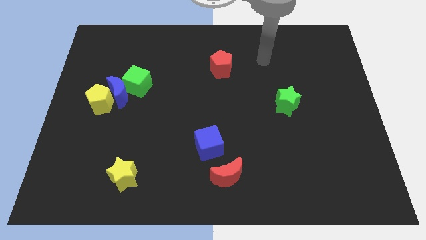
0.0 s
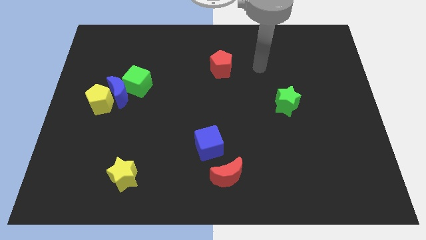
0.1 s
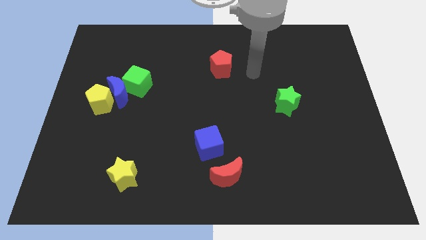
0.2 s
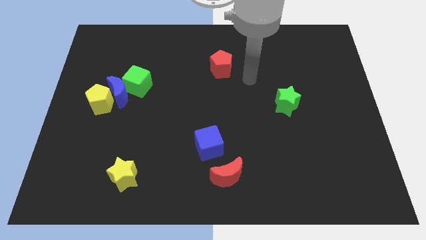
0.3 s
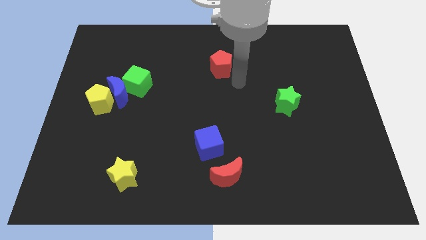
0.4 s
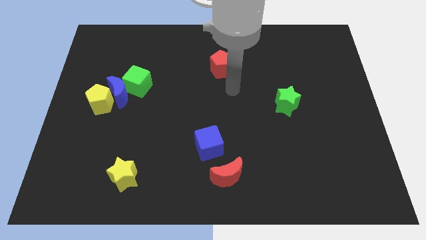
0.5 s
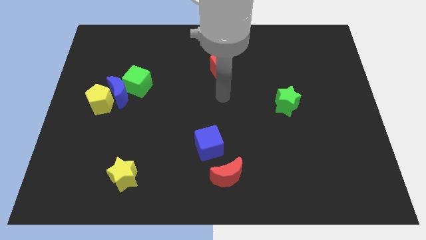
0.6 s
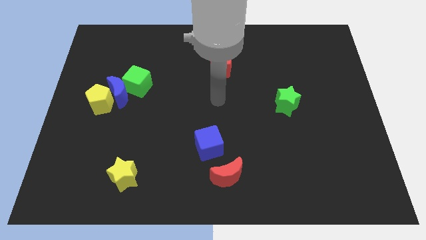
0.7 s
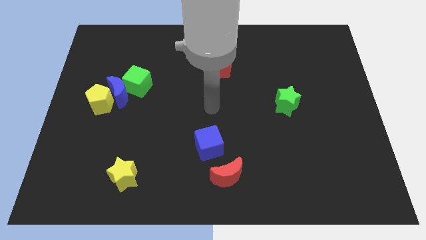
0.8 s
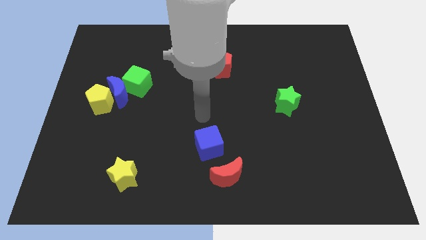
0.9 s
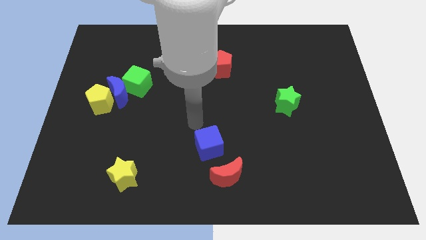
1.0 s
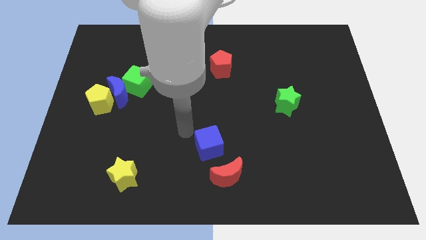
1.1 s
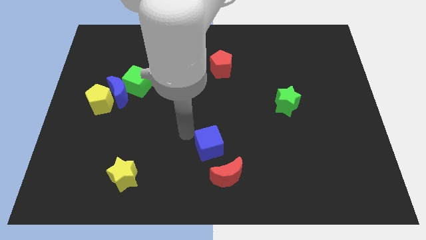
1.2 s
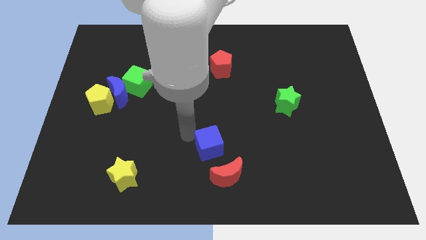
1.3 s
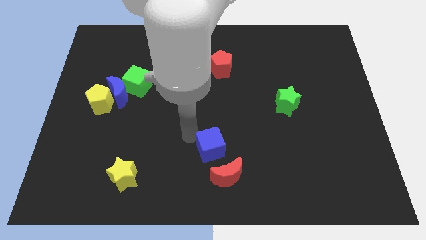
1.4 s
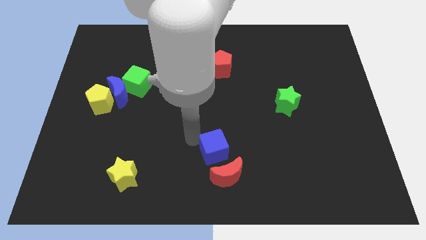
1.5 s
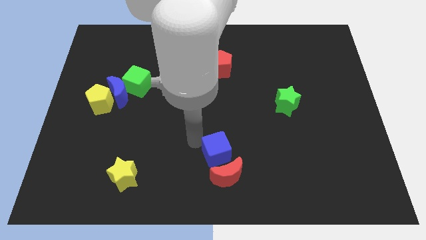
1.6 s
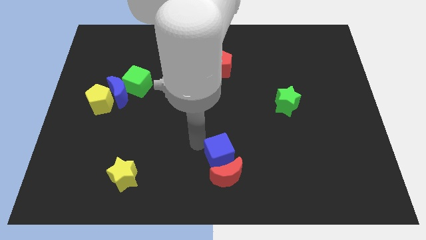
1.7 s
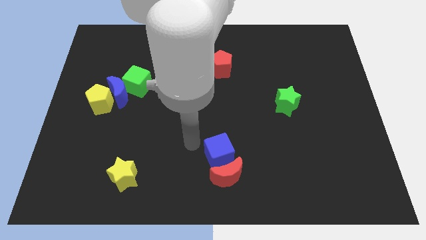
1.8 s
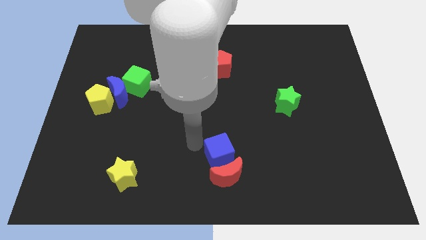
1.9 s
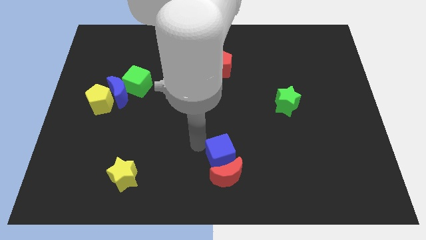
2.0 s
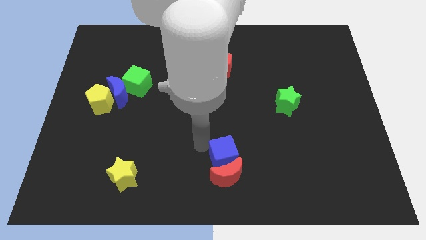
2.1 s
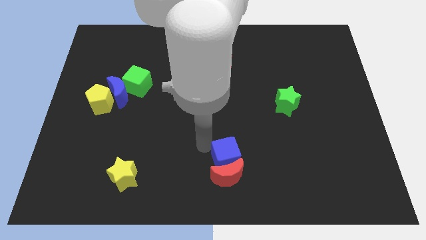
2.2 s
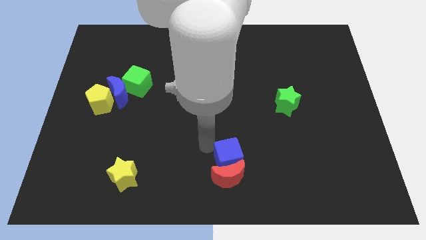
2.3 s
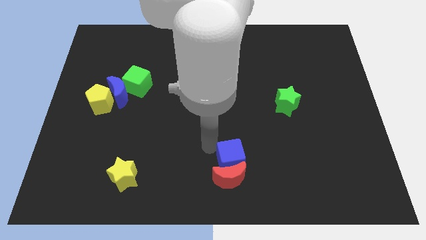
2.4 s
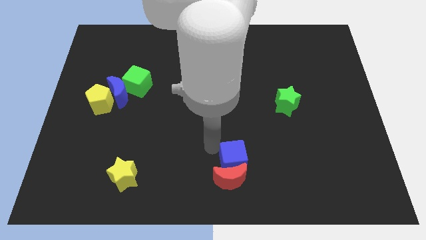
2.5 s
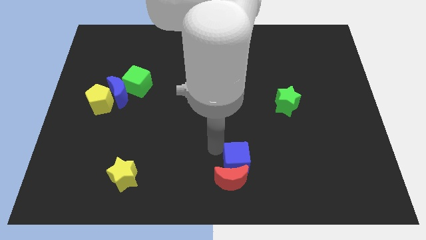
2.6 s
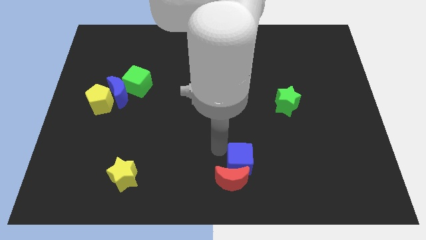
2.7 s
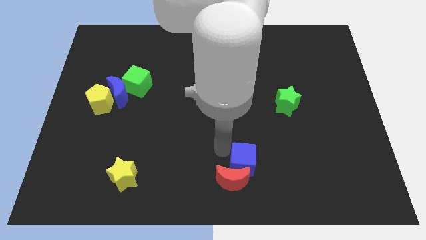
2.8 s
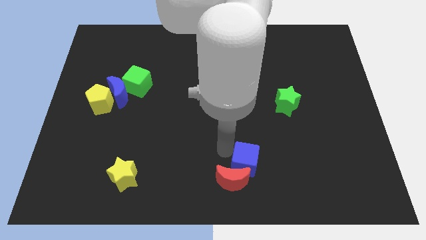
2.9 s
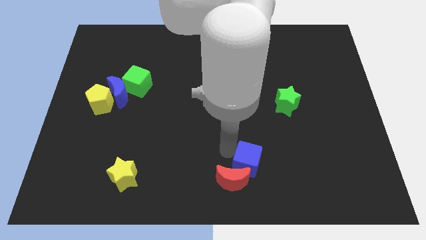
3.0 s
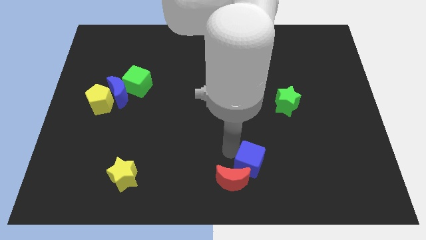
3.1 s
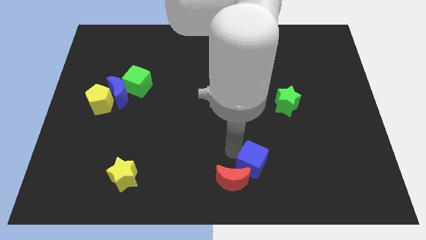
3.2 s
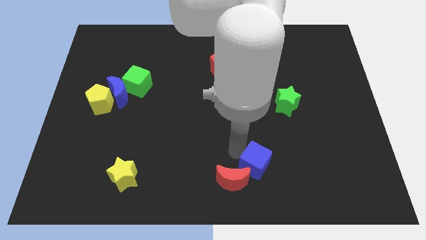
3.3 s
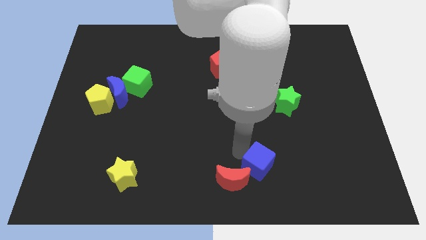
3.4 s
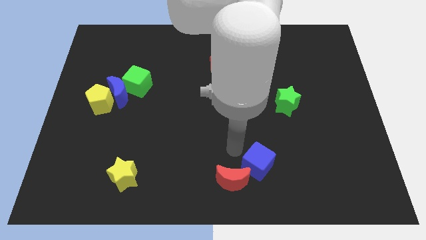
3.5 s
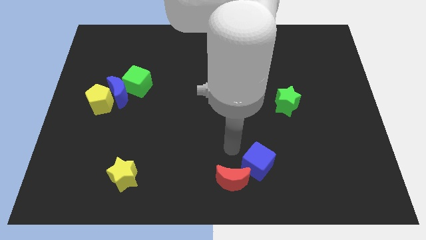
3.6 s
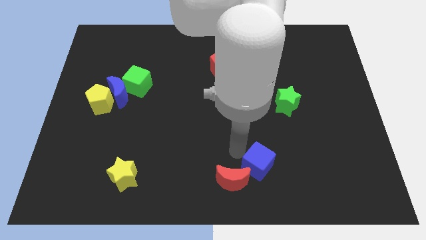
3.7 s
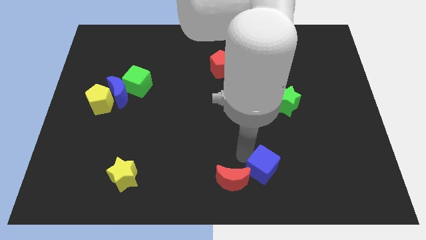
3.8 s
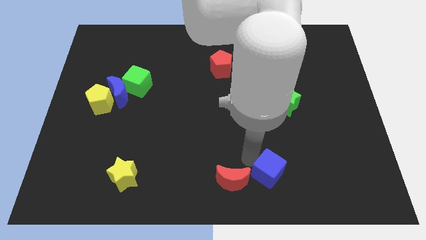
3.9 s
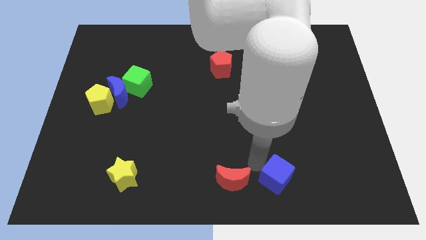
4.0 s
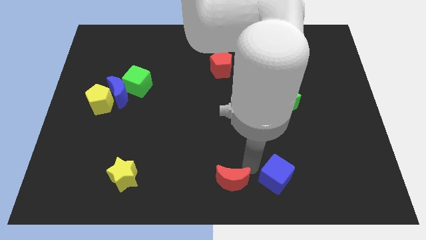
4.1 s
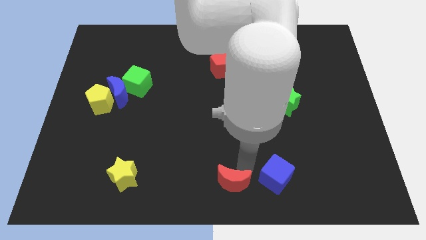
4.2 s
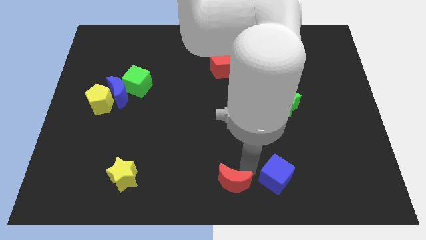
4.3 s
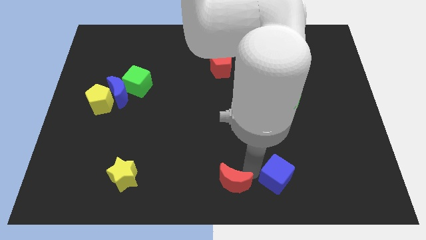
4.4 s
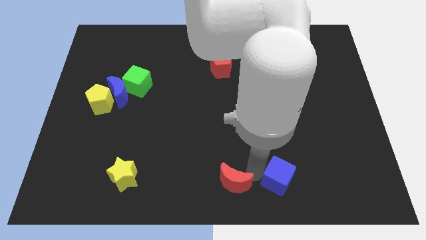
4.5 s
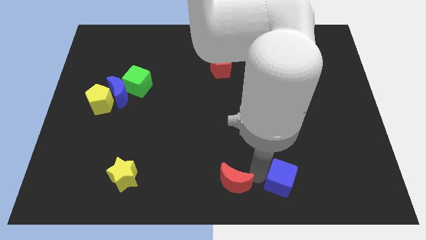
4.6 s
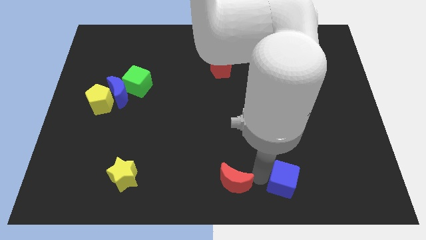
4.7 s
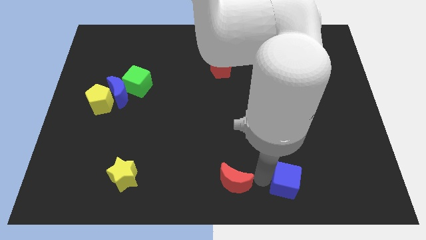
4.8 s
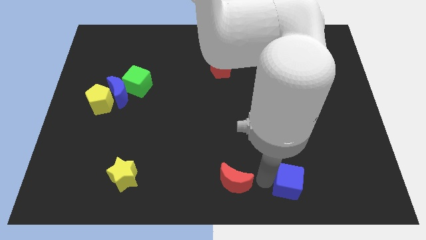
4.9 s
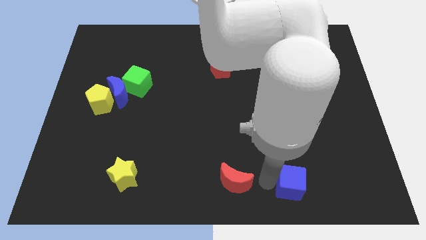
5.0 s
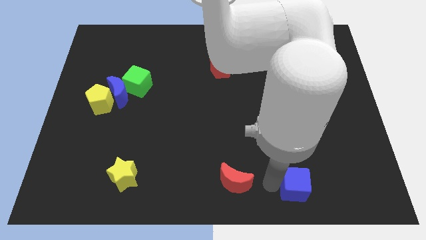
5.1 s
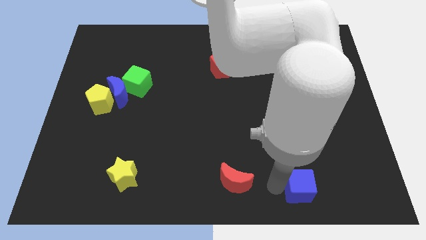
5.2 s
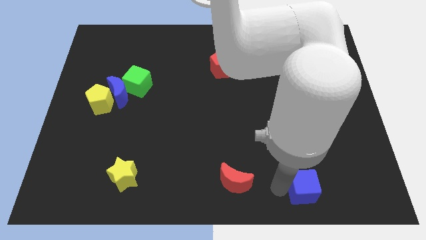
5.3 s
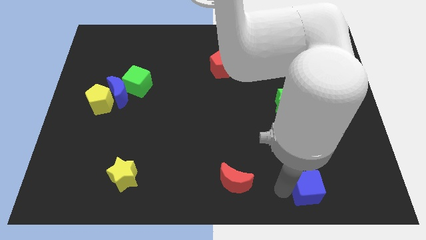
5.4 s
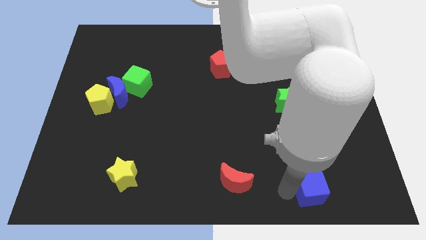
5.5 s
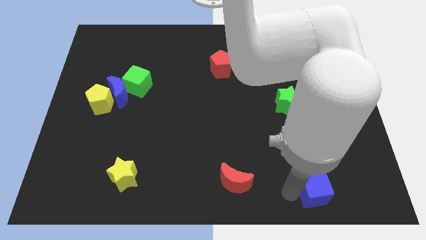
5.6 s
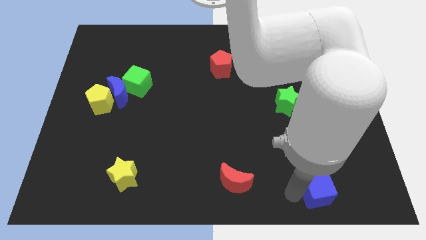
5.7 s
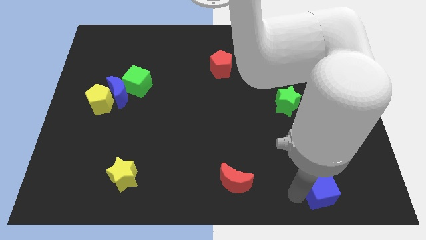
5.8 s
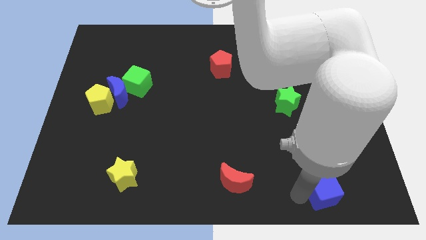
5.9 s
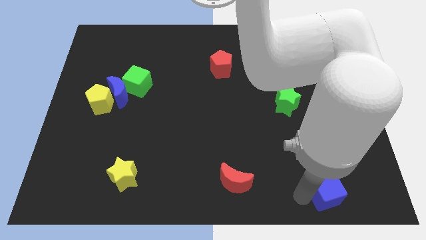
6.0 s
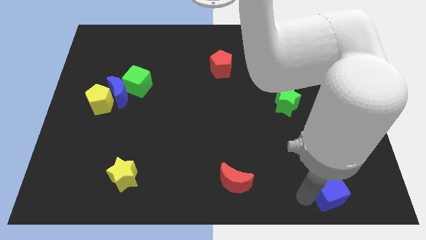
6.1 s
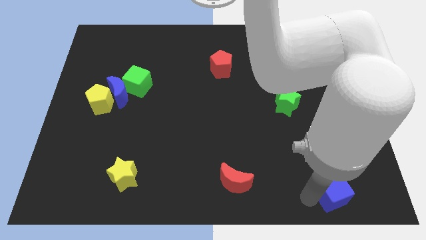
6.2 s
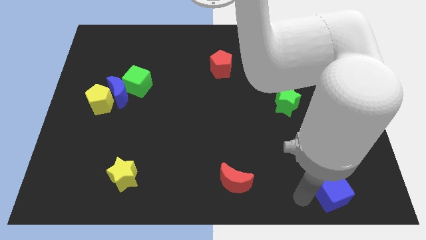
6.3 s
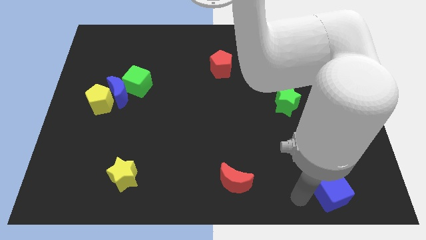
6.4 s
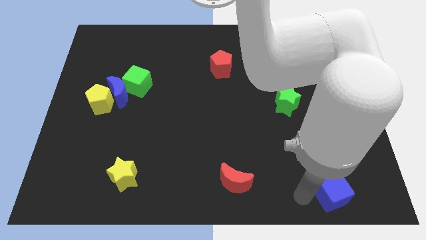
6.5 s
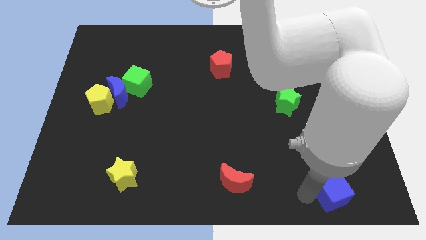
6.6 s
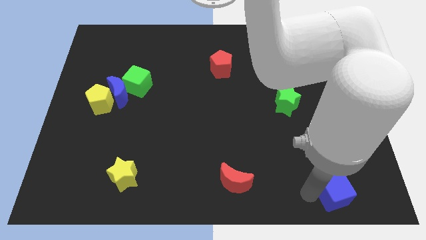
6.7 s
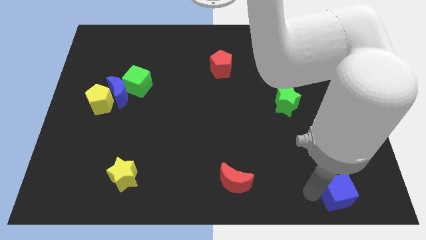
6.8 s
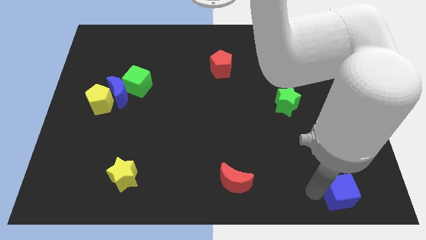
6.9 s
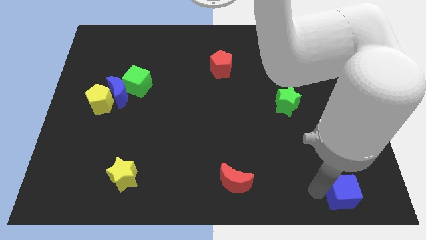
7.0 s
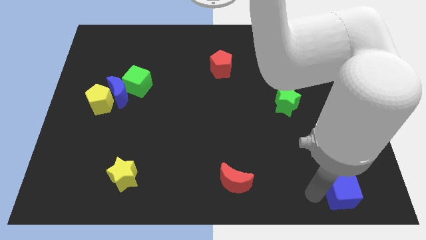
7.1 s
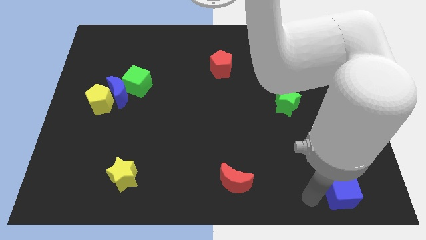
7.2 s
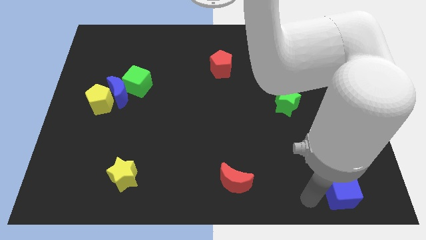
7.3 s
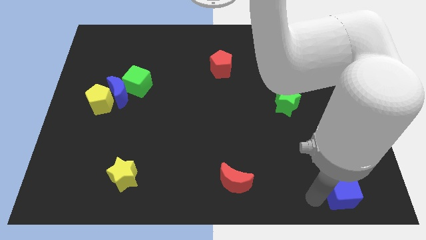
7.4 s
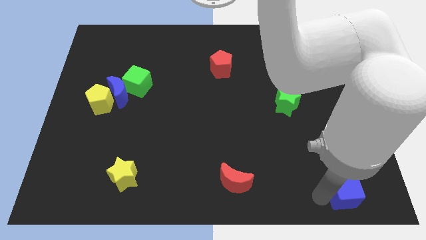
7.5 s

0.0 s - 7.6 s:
slide the blue cube to the bottom right
